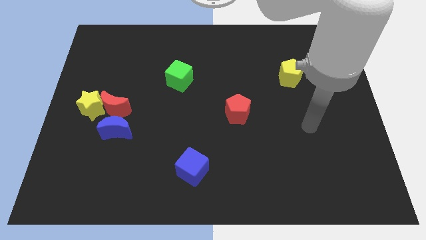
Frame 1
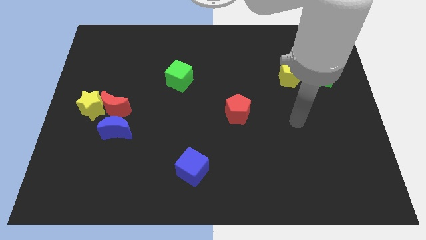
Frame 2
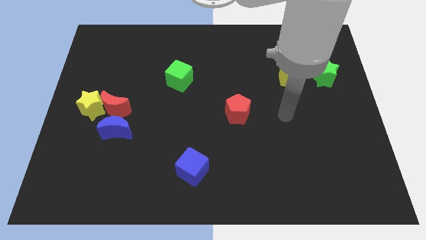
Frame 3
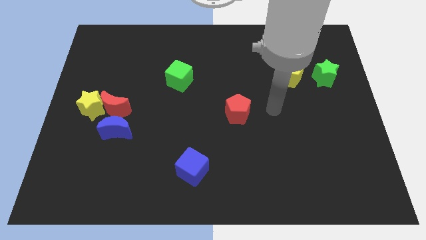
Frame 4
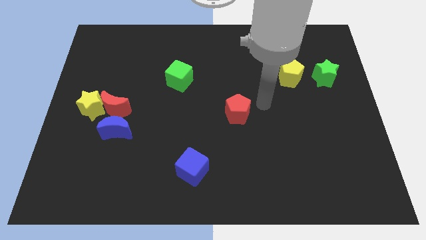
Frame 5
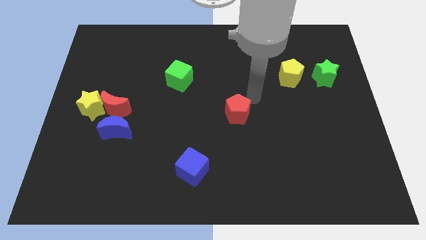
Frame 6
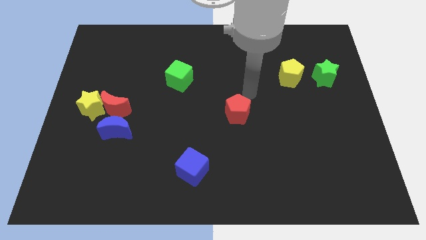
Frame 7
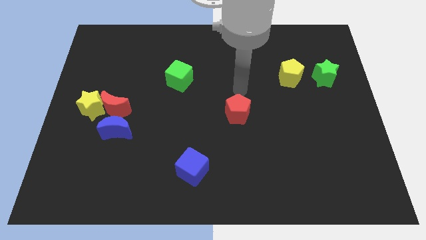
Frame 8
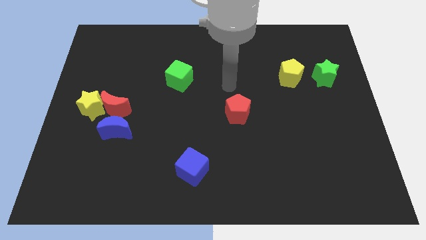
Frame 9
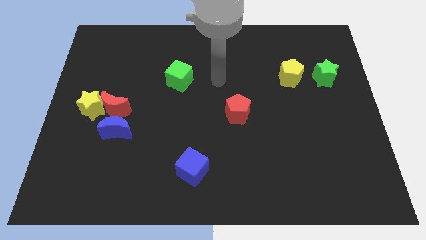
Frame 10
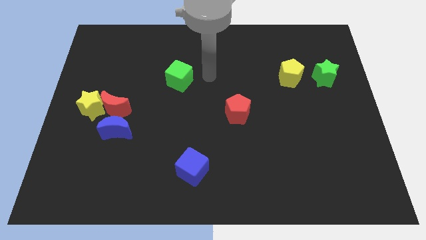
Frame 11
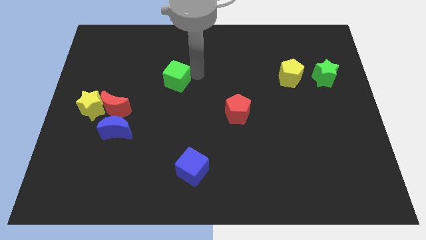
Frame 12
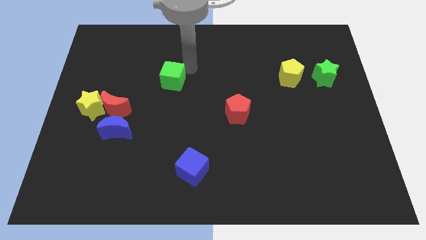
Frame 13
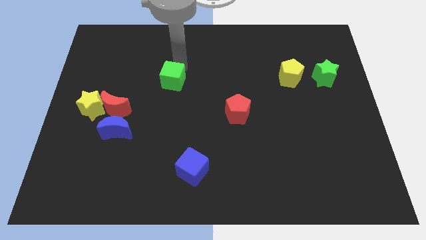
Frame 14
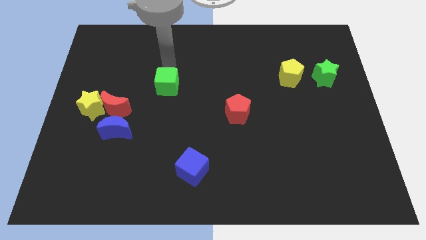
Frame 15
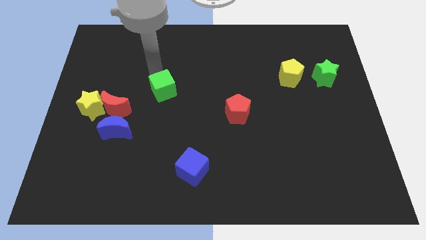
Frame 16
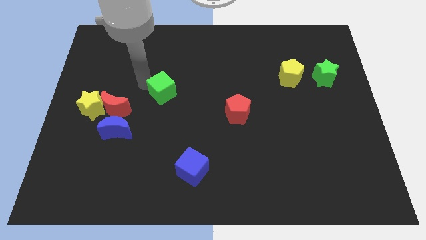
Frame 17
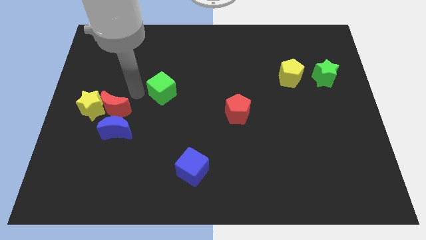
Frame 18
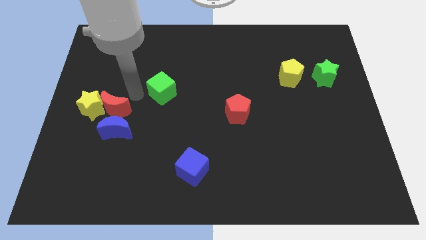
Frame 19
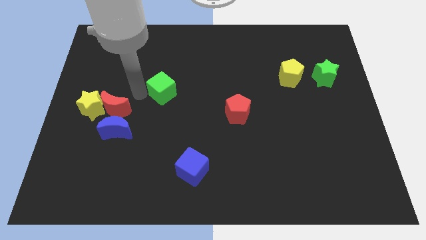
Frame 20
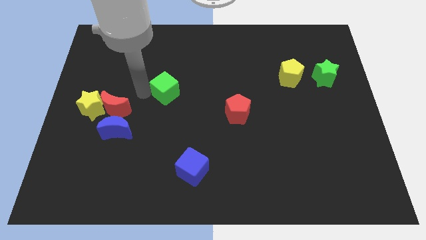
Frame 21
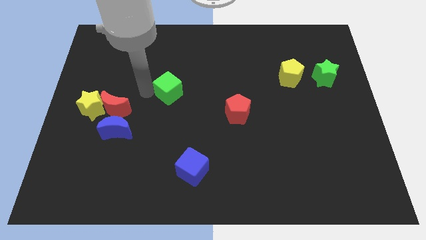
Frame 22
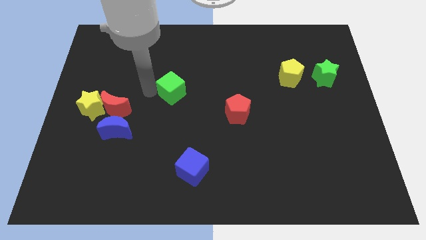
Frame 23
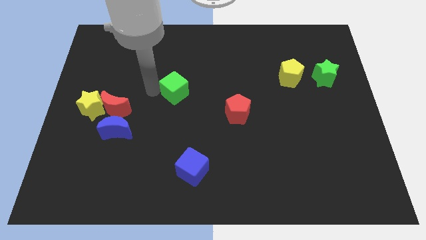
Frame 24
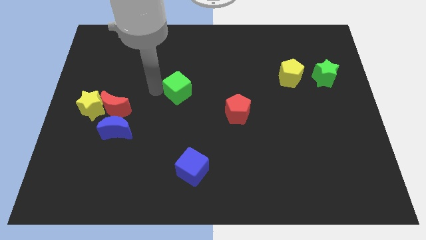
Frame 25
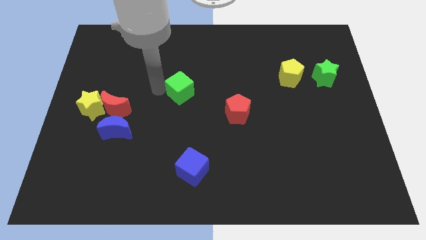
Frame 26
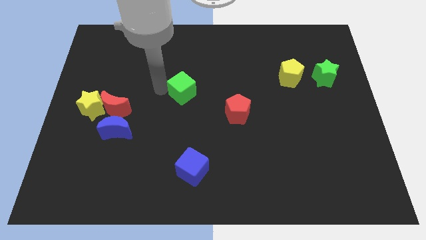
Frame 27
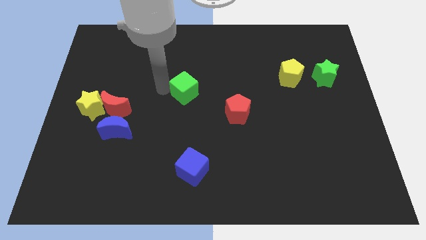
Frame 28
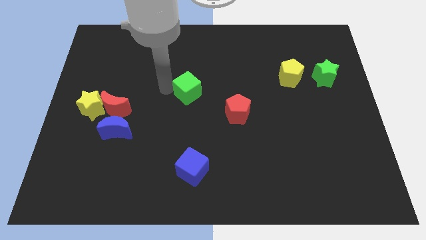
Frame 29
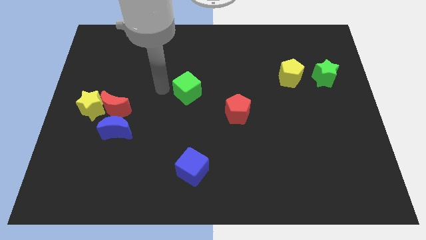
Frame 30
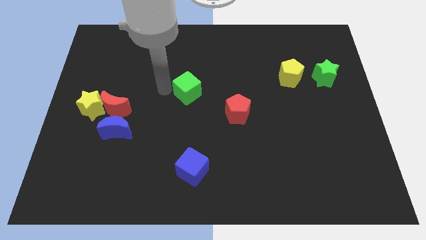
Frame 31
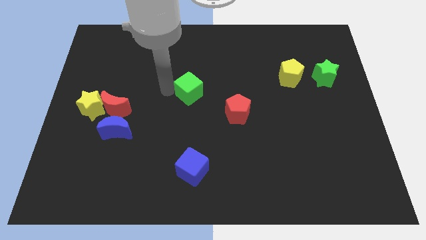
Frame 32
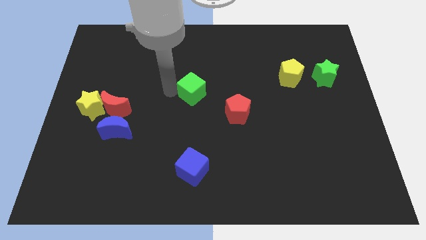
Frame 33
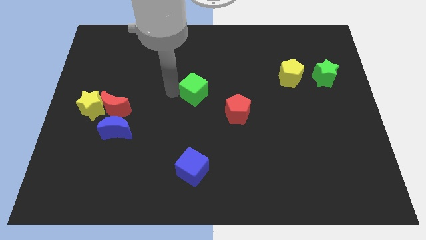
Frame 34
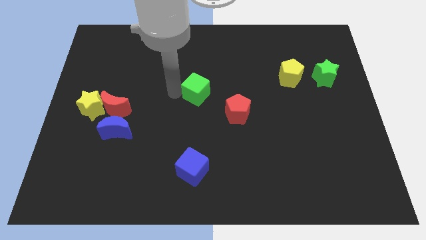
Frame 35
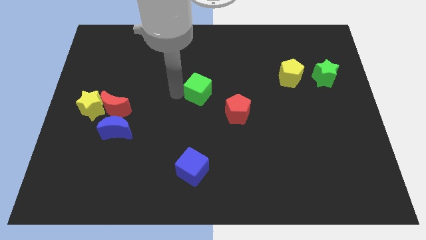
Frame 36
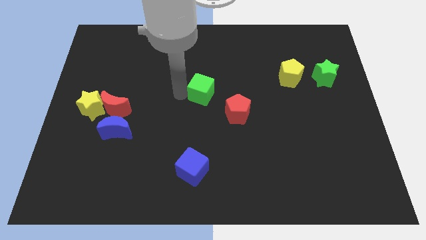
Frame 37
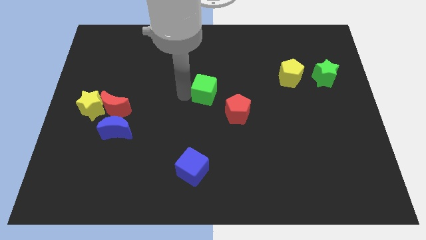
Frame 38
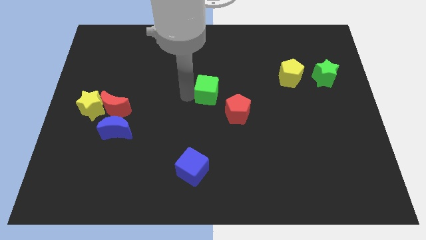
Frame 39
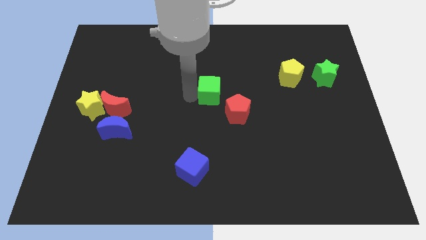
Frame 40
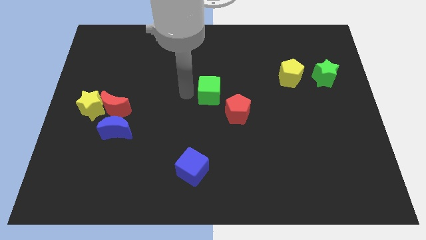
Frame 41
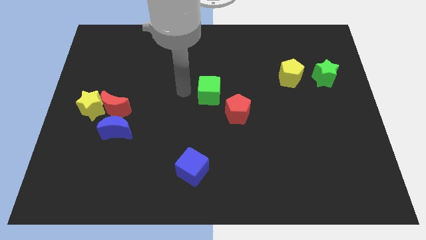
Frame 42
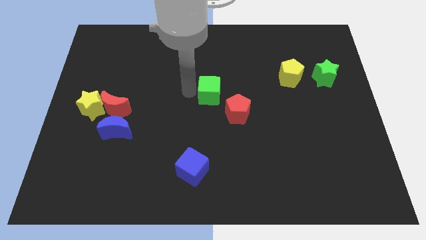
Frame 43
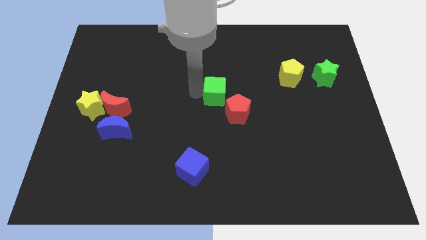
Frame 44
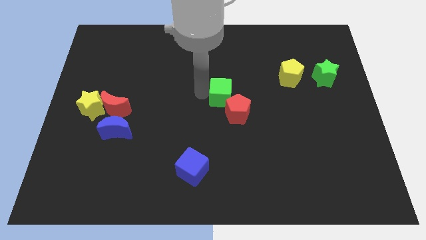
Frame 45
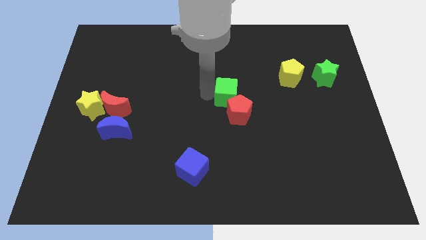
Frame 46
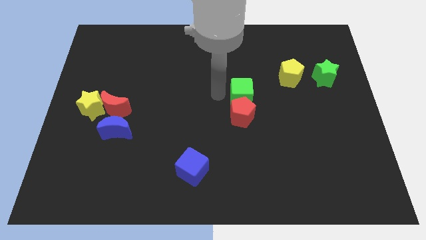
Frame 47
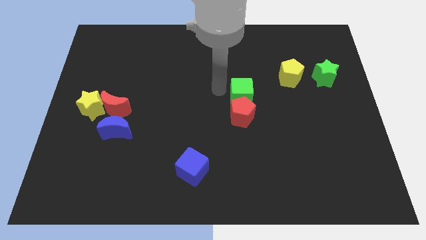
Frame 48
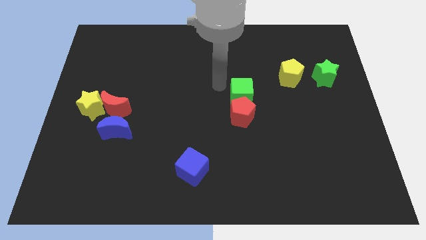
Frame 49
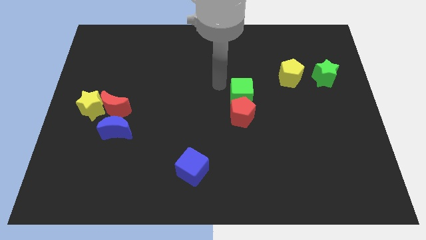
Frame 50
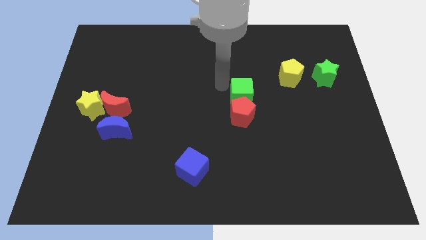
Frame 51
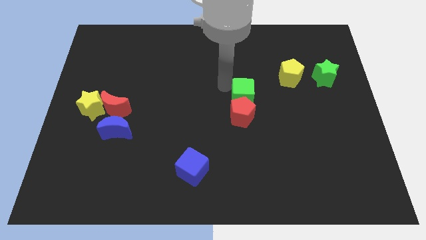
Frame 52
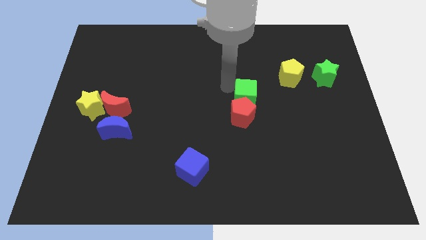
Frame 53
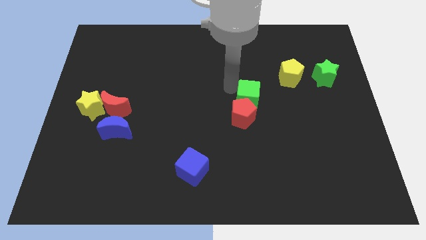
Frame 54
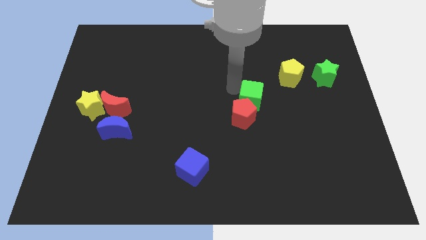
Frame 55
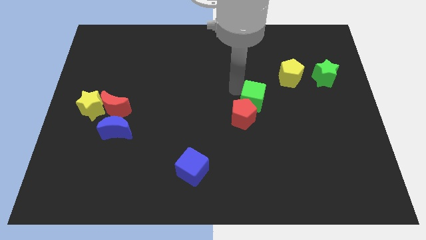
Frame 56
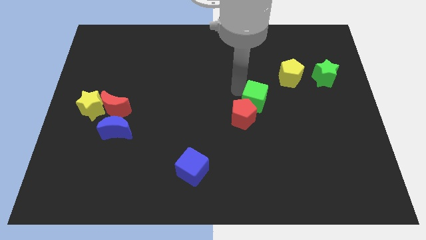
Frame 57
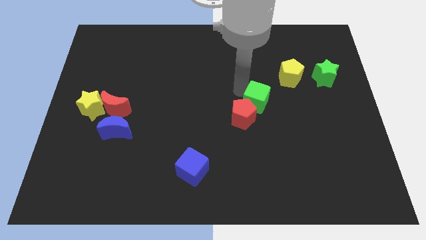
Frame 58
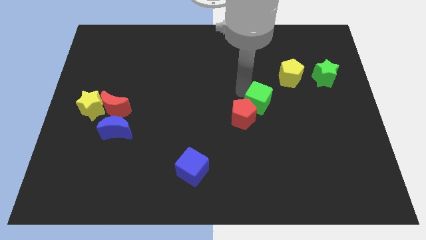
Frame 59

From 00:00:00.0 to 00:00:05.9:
slide the green cube right of the red pentagon

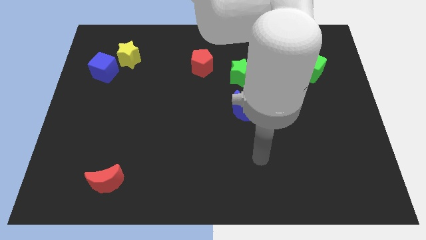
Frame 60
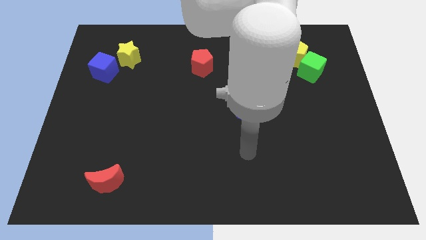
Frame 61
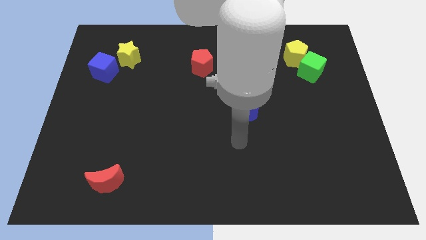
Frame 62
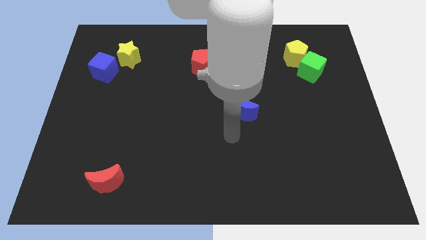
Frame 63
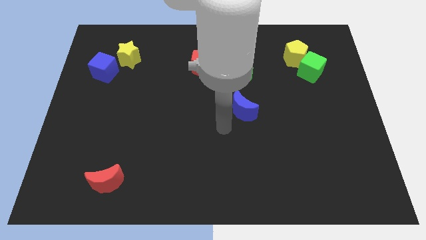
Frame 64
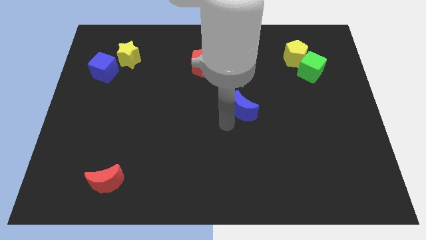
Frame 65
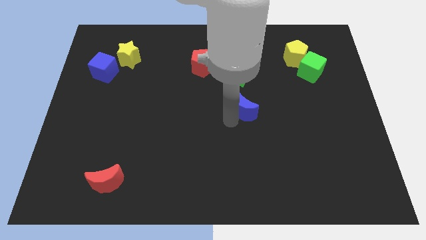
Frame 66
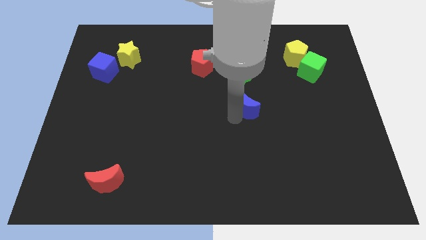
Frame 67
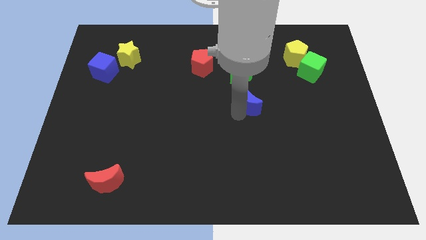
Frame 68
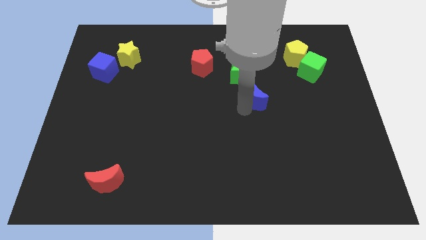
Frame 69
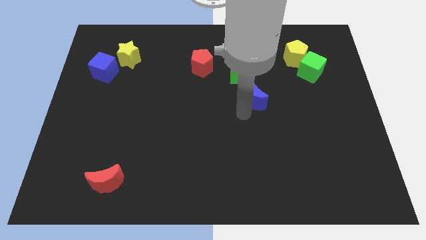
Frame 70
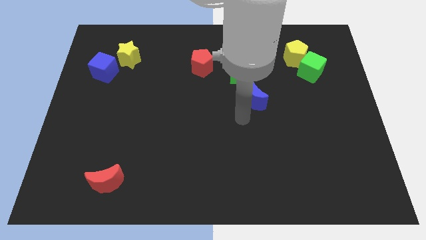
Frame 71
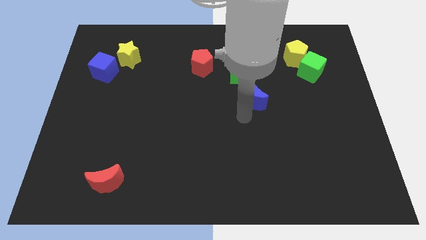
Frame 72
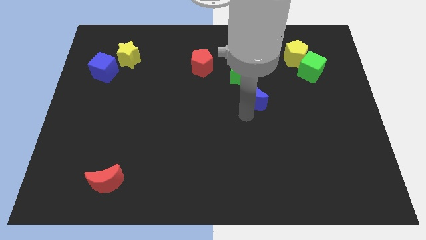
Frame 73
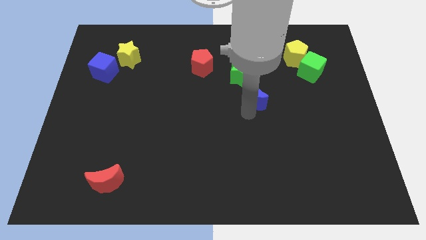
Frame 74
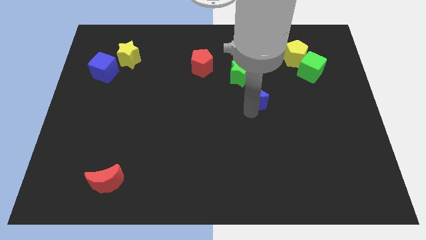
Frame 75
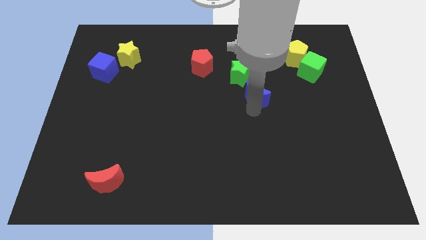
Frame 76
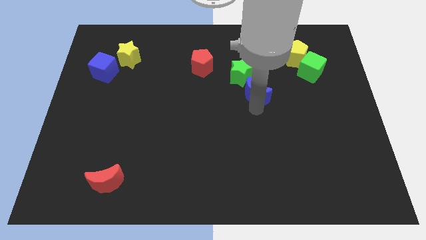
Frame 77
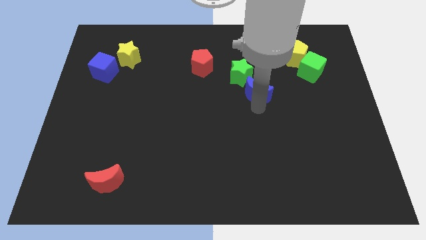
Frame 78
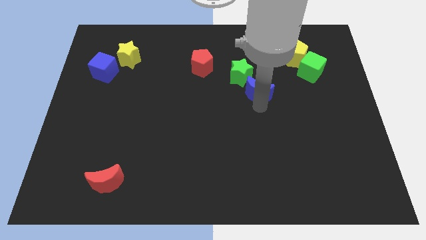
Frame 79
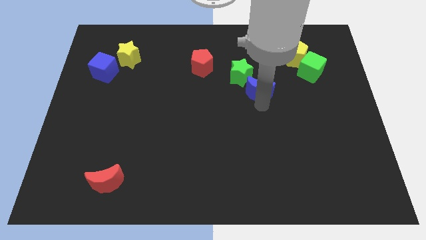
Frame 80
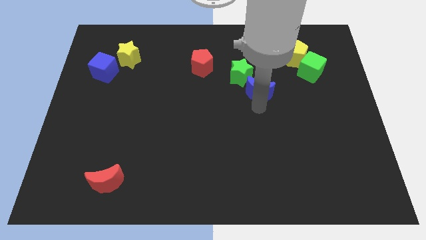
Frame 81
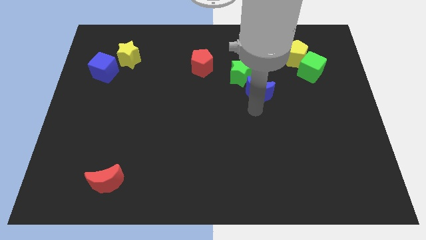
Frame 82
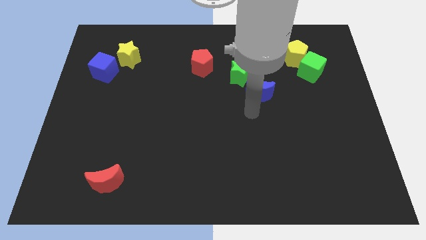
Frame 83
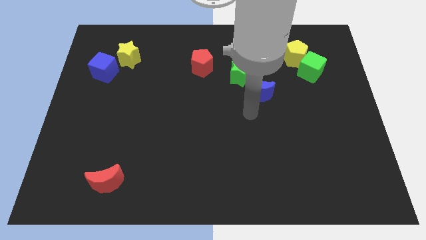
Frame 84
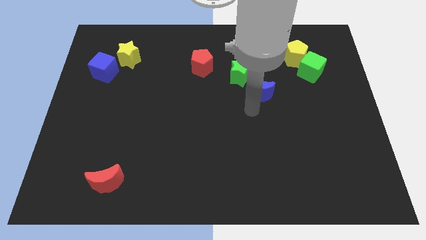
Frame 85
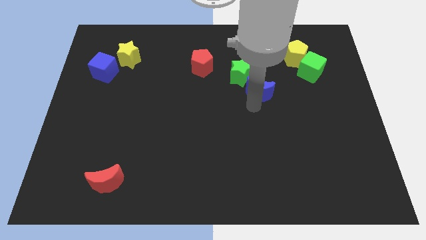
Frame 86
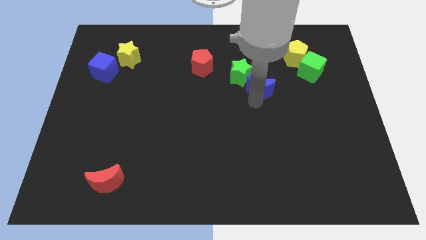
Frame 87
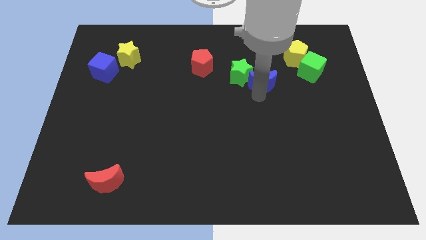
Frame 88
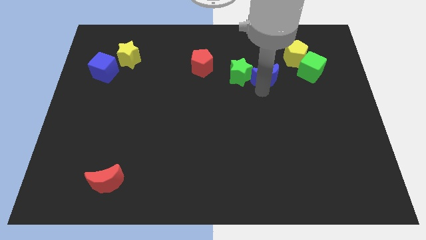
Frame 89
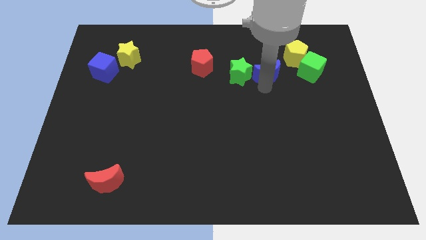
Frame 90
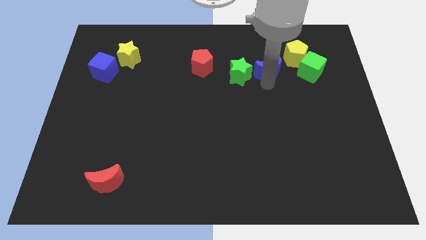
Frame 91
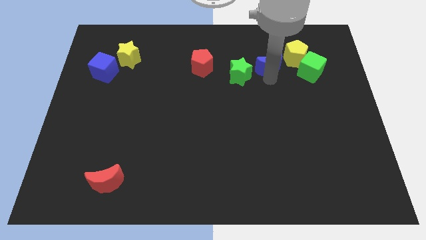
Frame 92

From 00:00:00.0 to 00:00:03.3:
put the blue moon to the left side of the yellow pentagon
